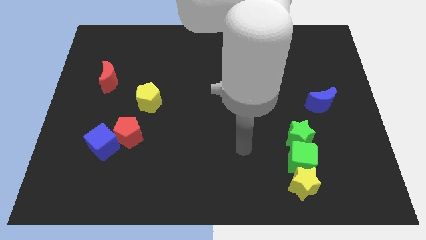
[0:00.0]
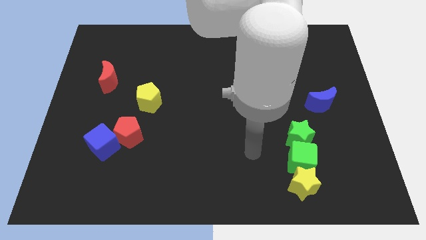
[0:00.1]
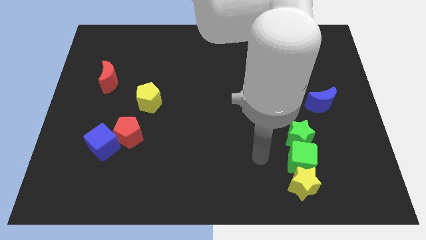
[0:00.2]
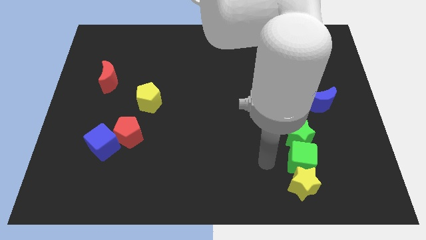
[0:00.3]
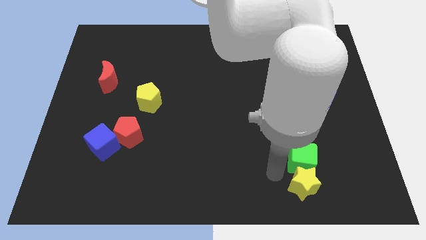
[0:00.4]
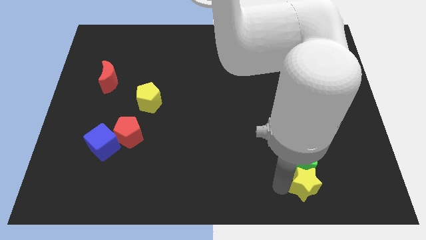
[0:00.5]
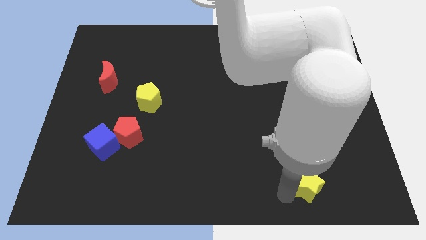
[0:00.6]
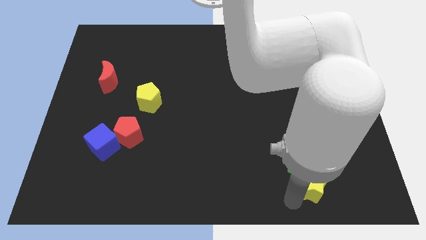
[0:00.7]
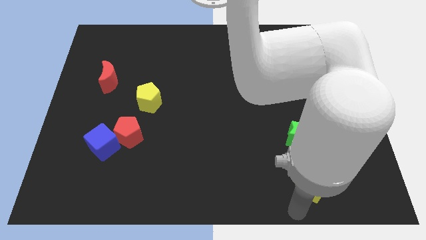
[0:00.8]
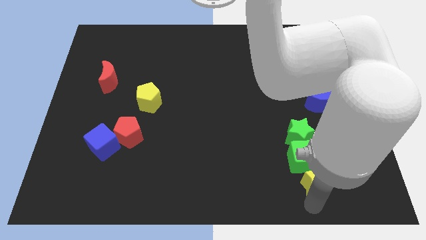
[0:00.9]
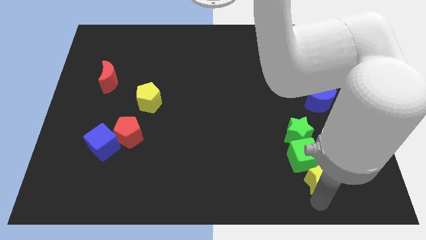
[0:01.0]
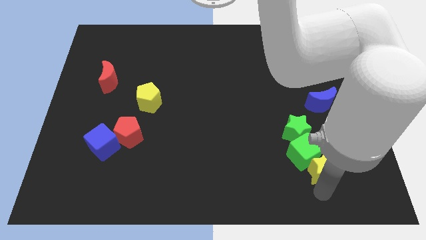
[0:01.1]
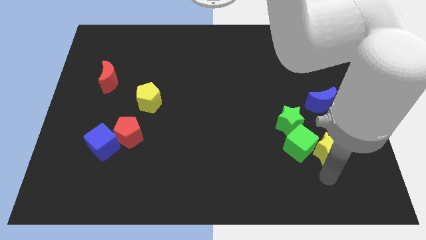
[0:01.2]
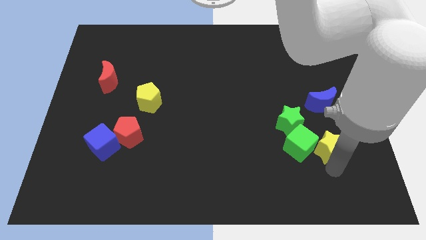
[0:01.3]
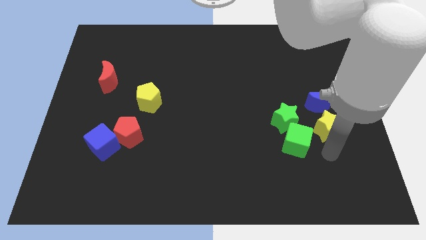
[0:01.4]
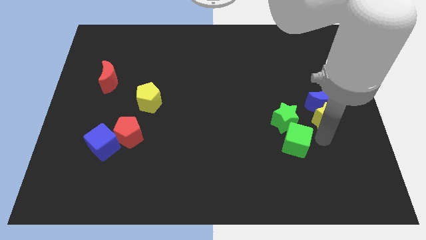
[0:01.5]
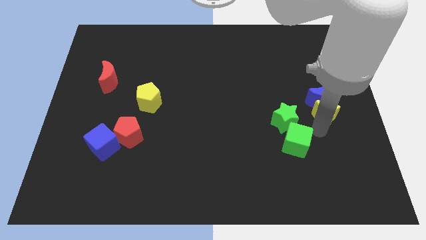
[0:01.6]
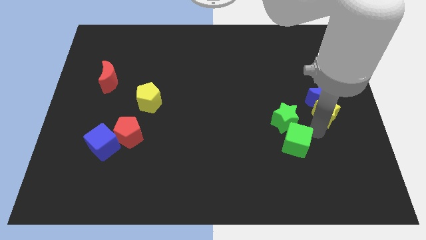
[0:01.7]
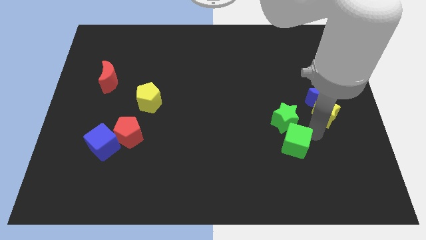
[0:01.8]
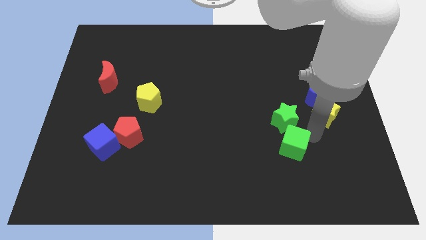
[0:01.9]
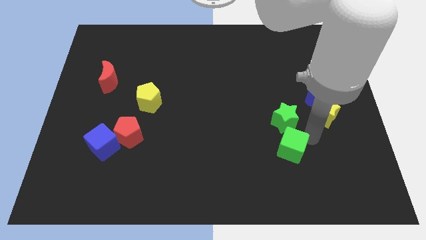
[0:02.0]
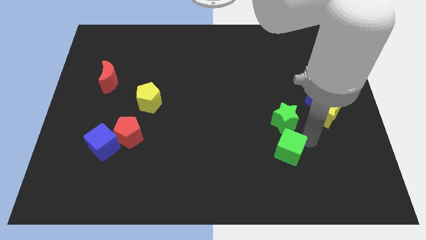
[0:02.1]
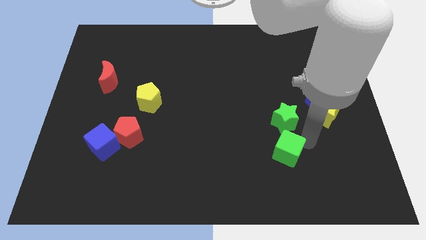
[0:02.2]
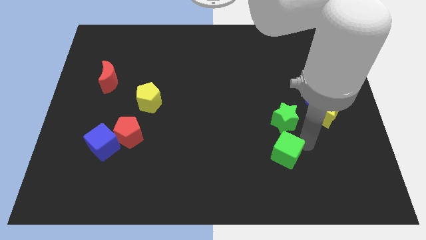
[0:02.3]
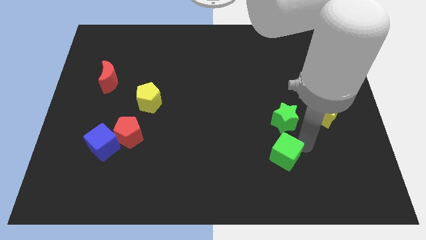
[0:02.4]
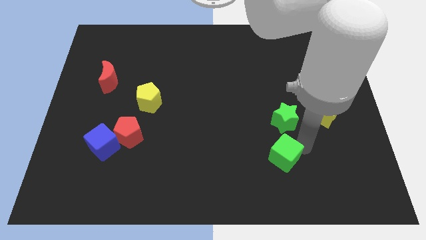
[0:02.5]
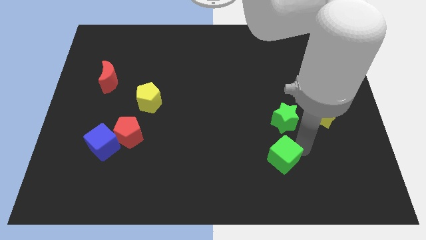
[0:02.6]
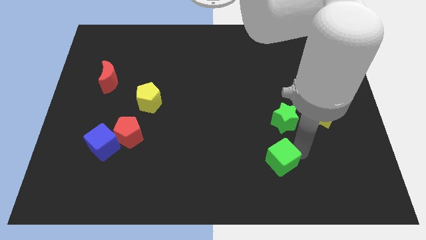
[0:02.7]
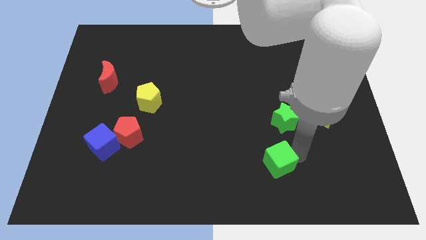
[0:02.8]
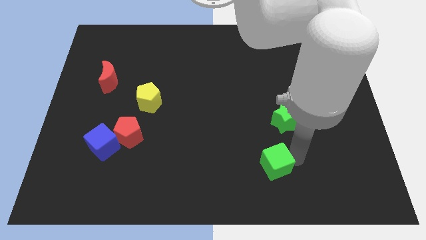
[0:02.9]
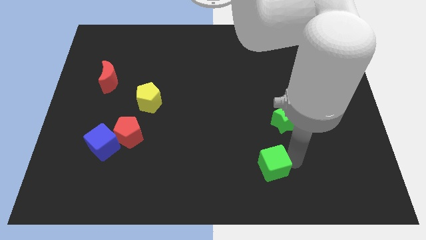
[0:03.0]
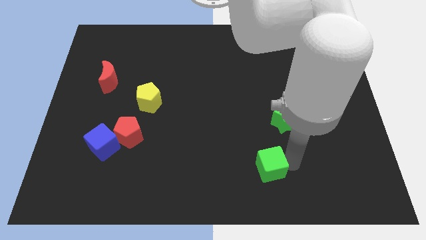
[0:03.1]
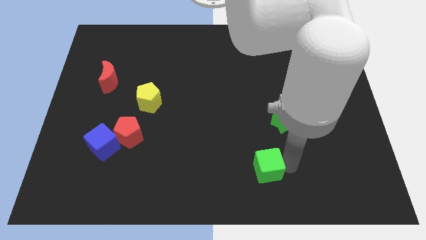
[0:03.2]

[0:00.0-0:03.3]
slide the green cube a little bit left

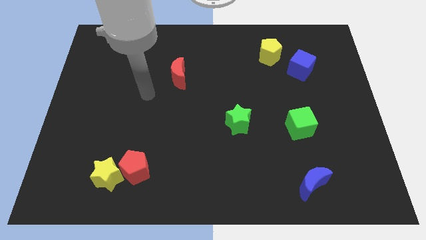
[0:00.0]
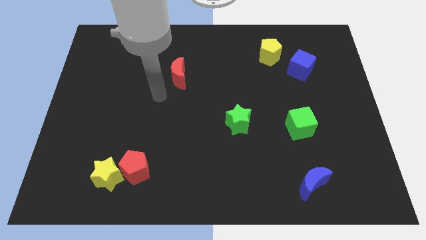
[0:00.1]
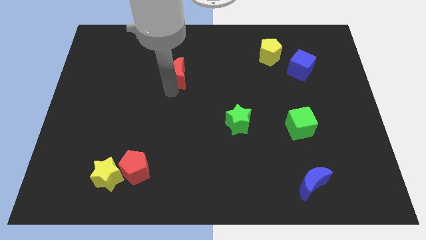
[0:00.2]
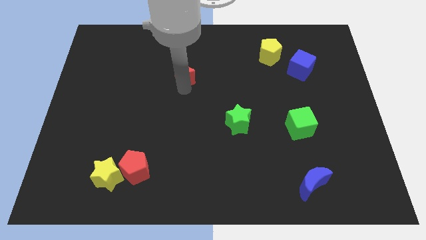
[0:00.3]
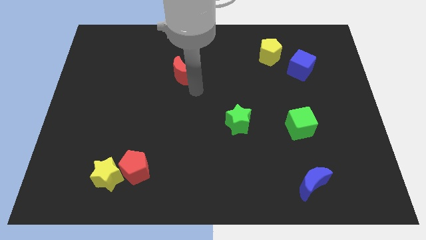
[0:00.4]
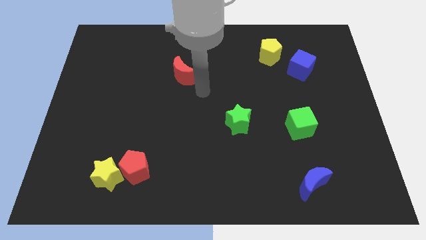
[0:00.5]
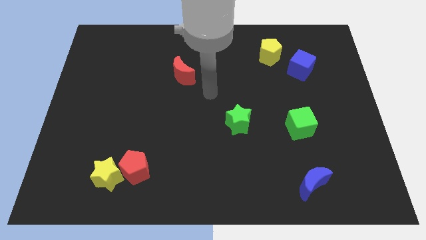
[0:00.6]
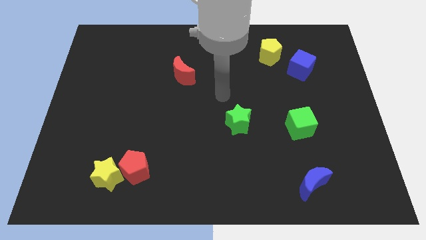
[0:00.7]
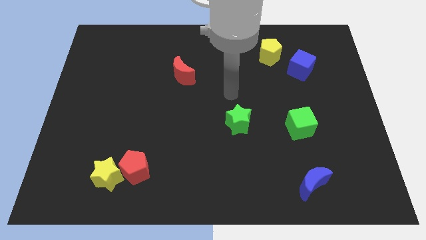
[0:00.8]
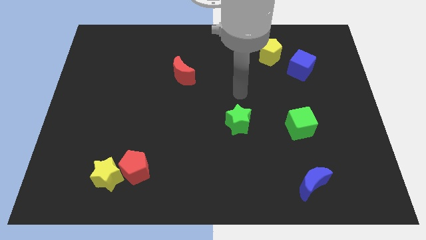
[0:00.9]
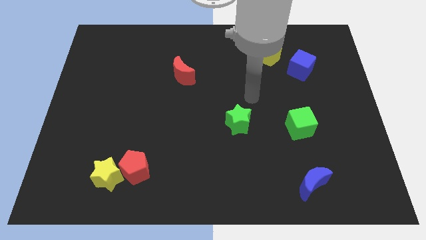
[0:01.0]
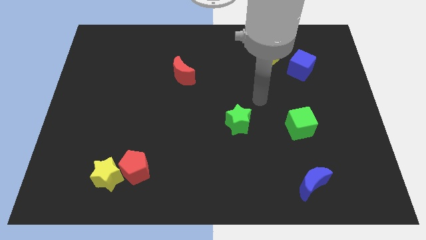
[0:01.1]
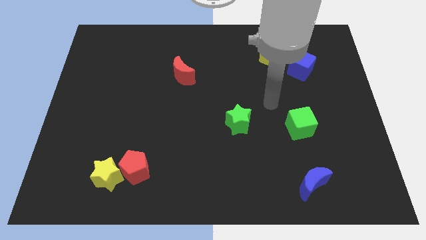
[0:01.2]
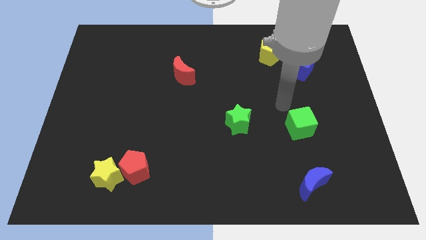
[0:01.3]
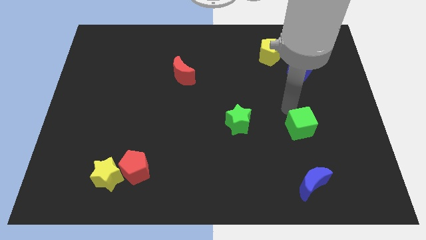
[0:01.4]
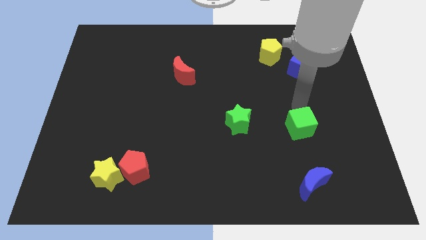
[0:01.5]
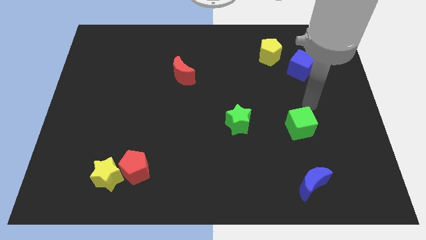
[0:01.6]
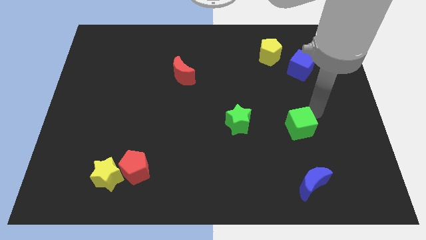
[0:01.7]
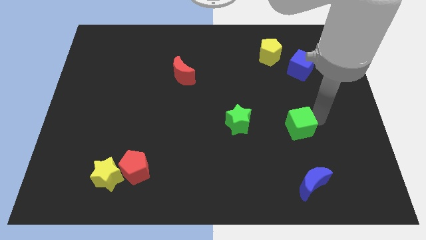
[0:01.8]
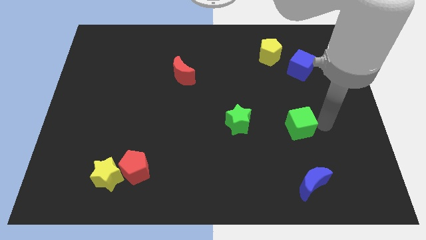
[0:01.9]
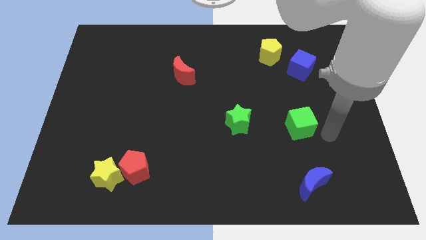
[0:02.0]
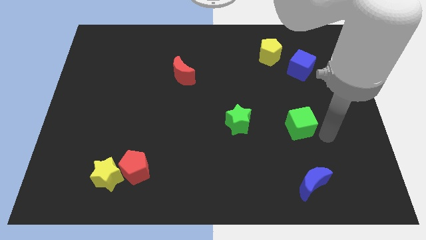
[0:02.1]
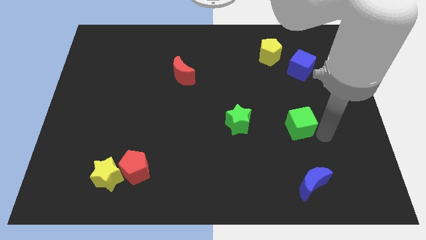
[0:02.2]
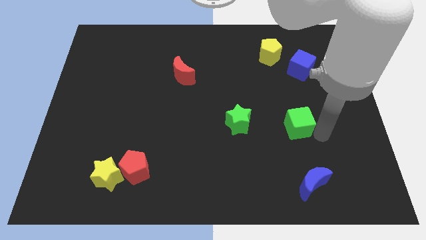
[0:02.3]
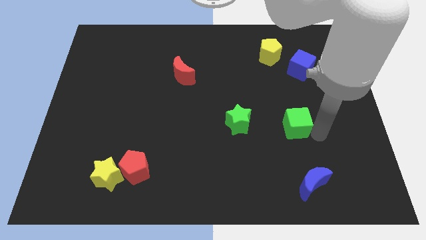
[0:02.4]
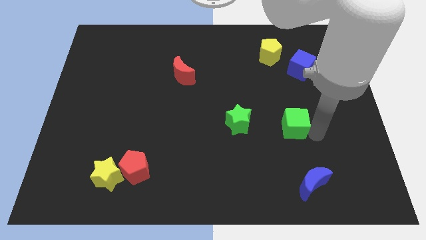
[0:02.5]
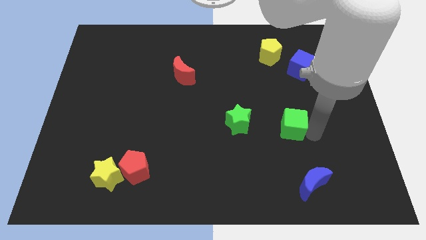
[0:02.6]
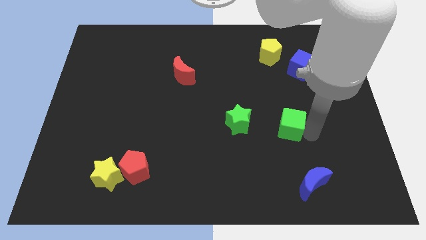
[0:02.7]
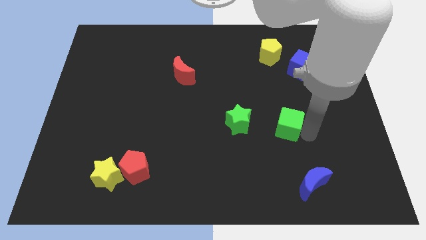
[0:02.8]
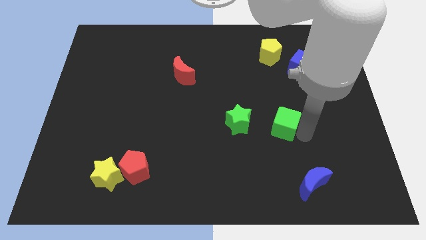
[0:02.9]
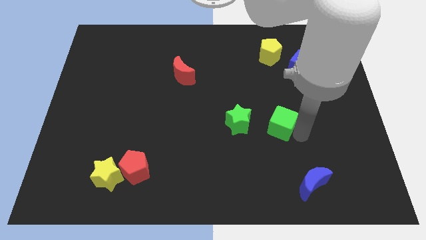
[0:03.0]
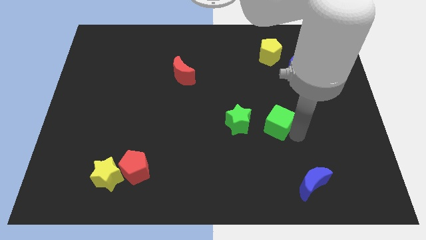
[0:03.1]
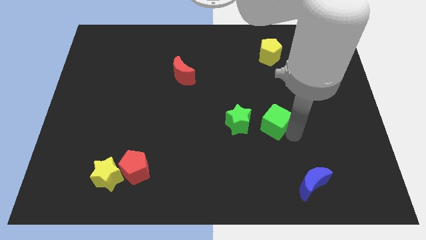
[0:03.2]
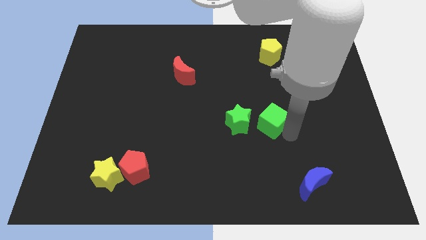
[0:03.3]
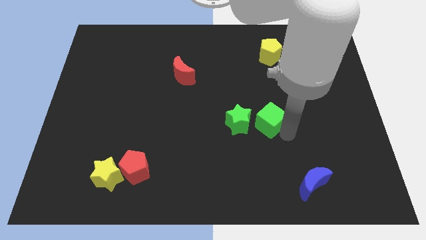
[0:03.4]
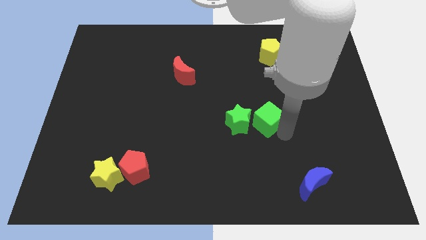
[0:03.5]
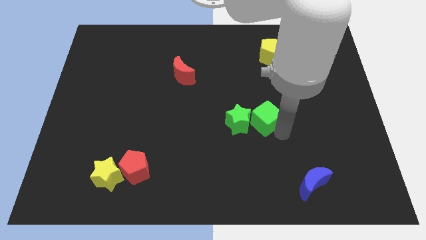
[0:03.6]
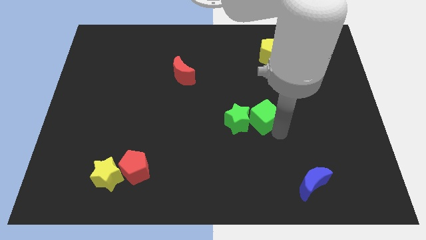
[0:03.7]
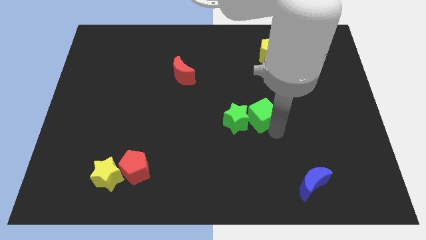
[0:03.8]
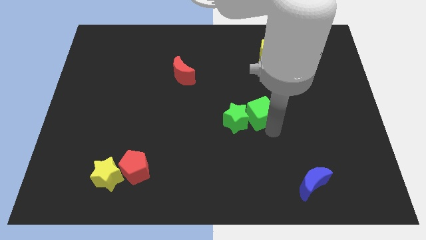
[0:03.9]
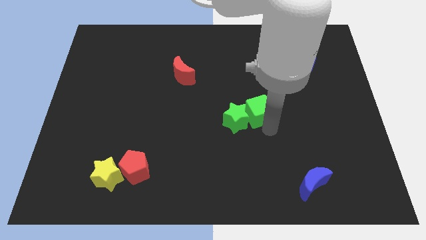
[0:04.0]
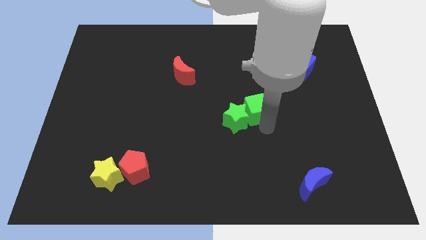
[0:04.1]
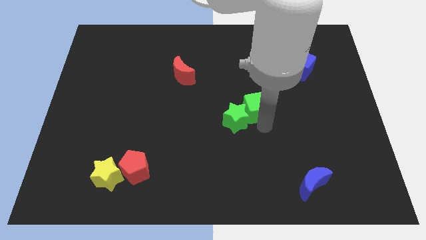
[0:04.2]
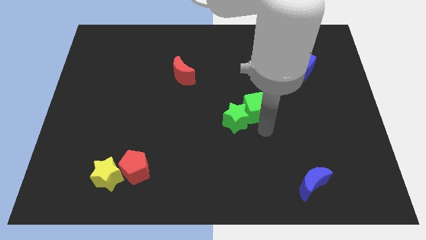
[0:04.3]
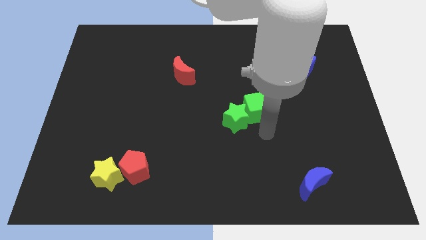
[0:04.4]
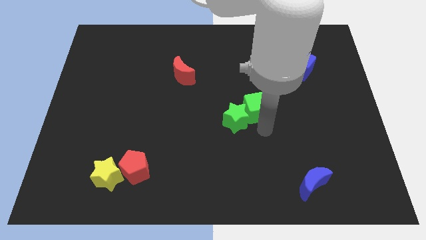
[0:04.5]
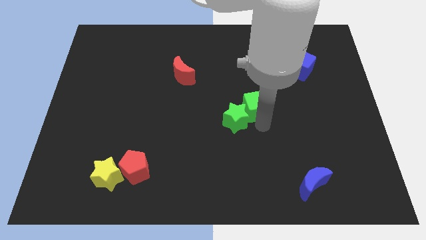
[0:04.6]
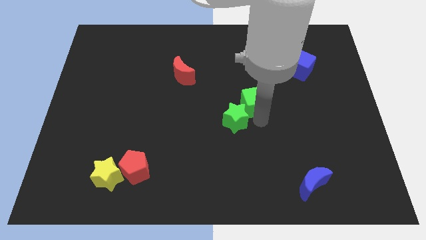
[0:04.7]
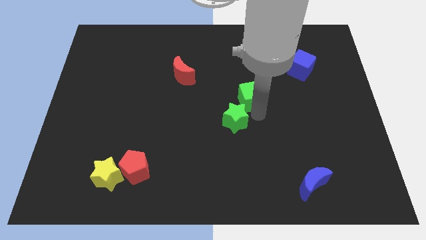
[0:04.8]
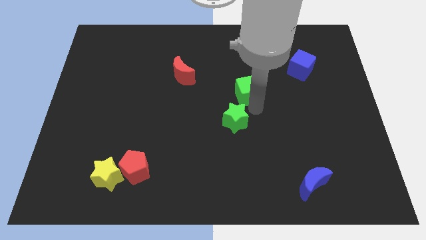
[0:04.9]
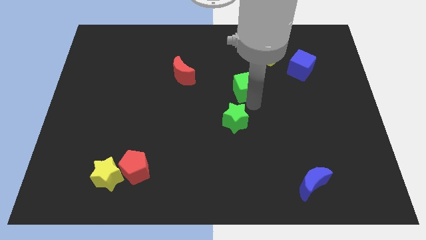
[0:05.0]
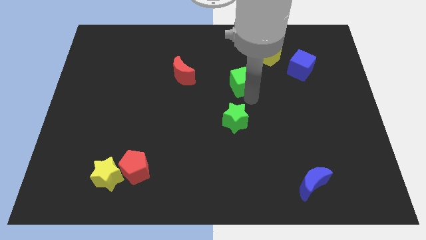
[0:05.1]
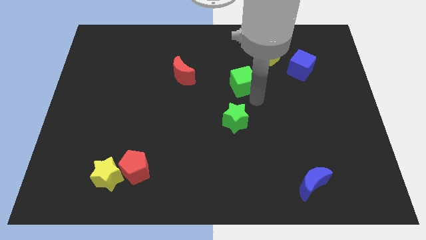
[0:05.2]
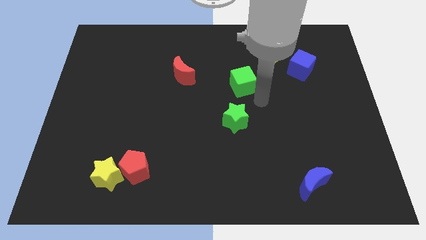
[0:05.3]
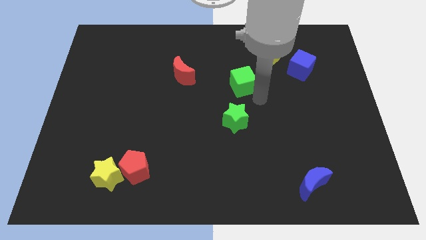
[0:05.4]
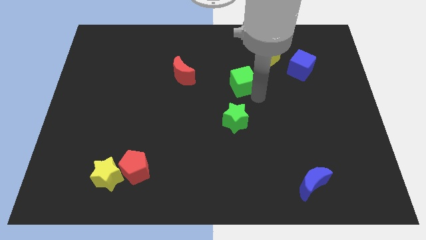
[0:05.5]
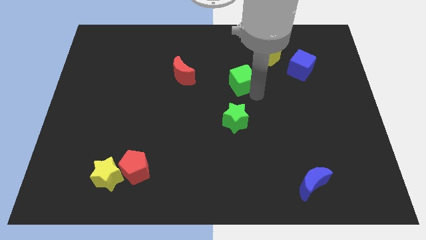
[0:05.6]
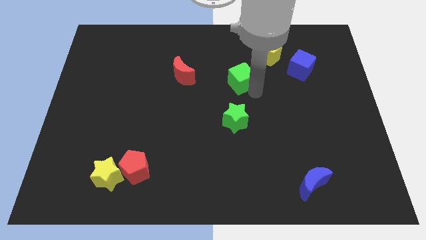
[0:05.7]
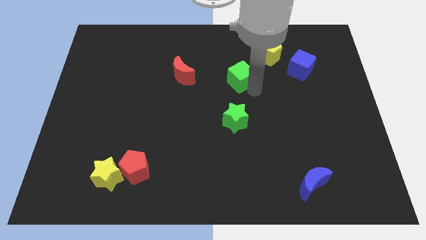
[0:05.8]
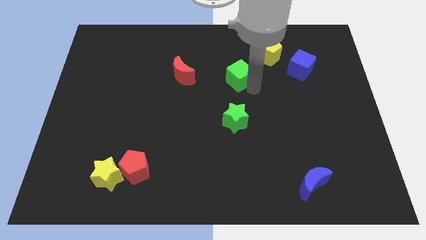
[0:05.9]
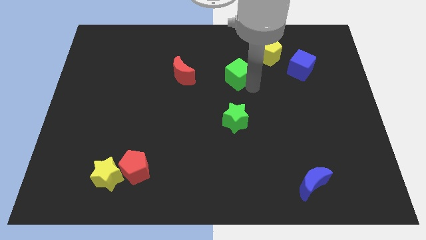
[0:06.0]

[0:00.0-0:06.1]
push the green cube diagonally upwards and to the left
